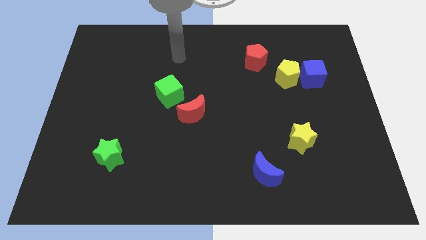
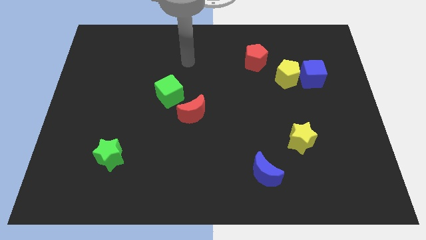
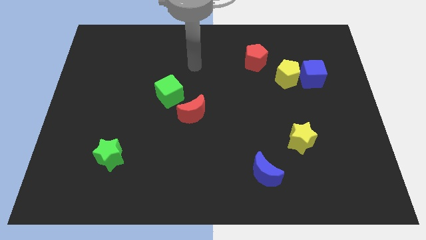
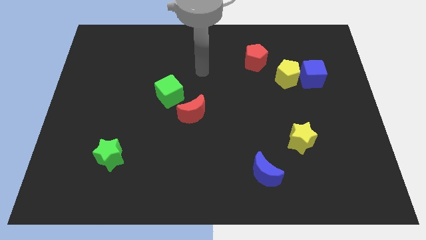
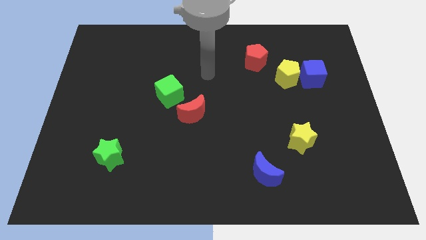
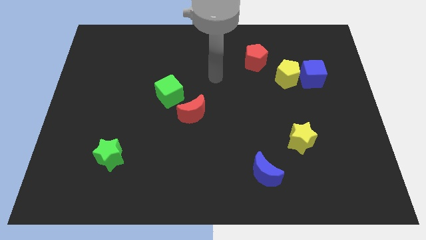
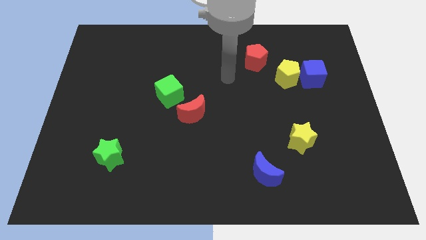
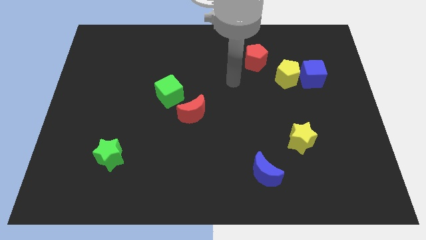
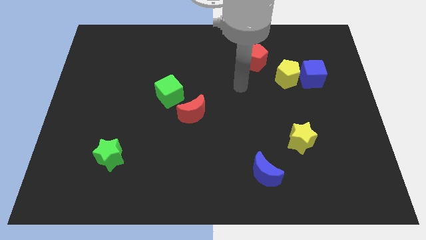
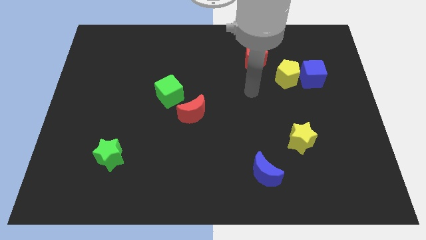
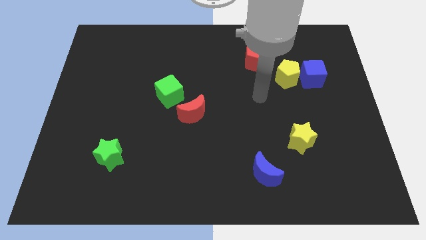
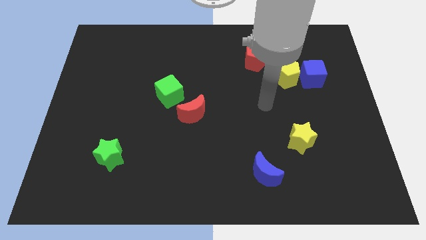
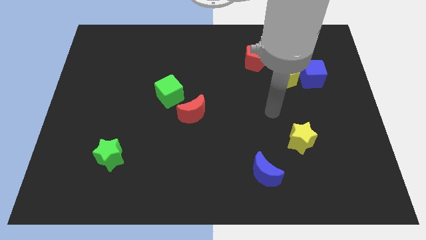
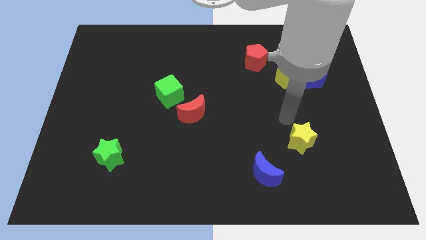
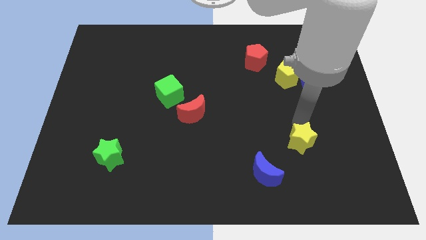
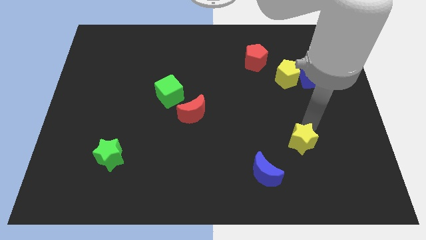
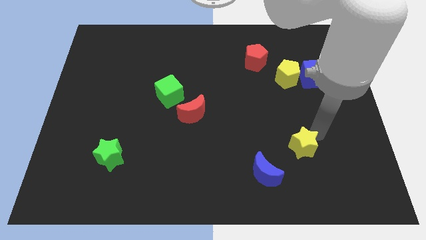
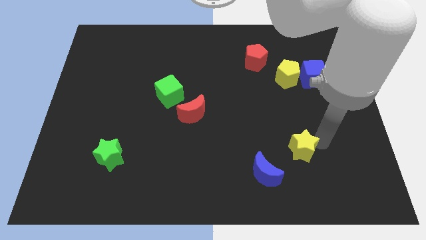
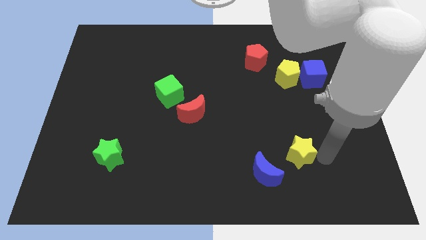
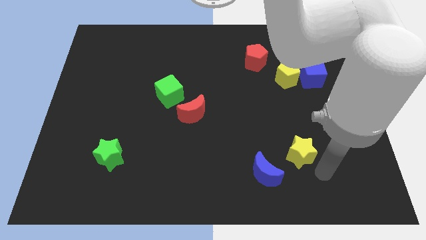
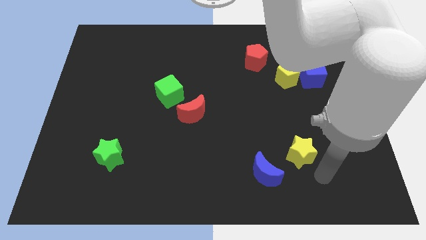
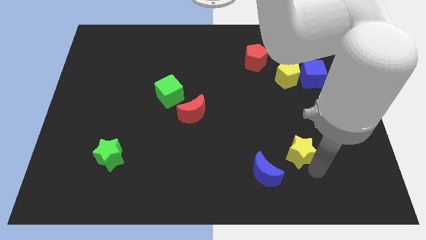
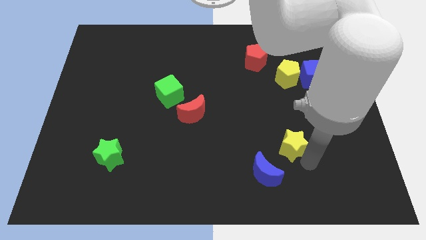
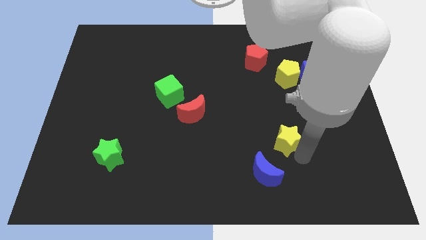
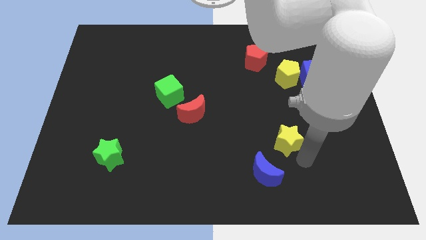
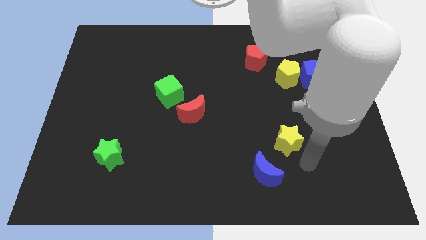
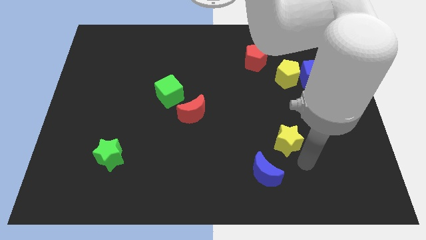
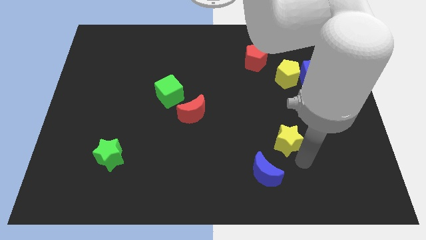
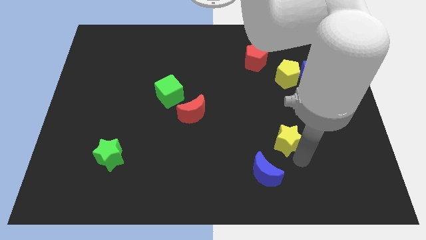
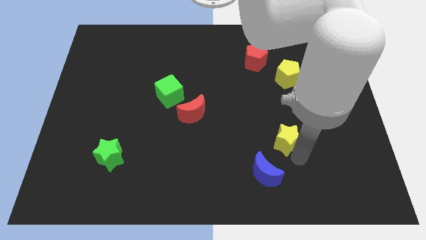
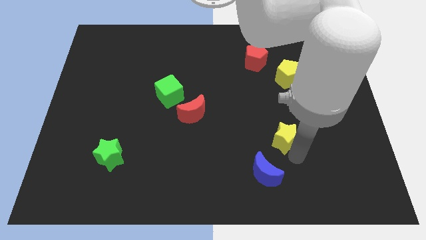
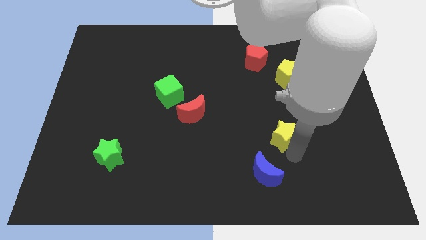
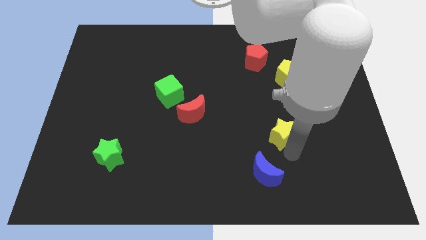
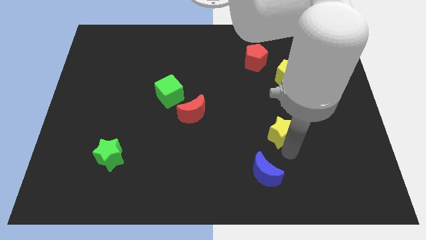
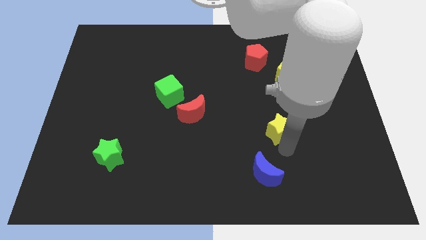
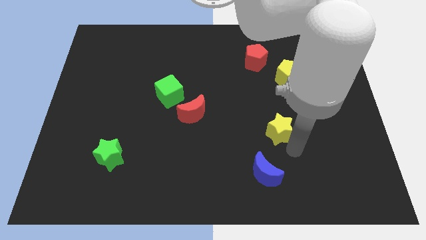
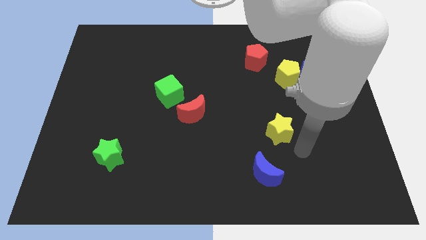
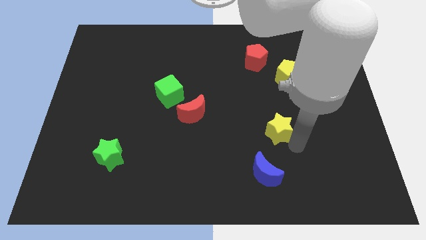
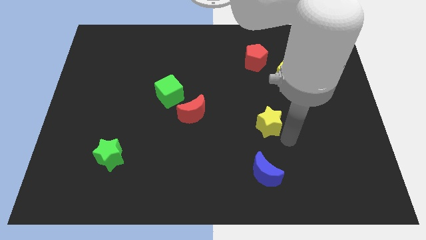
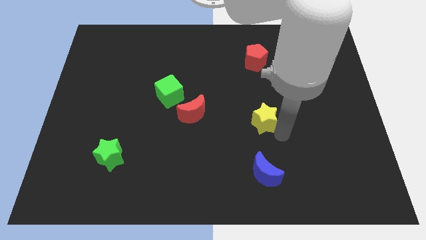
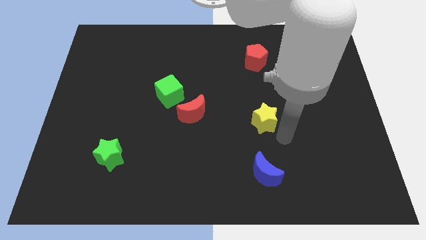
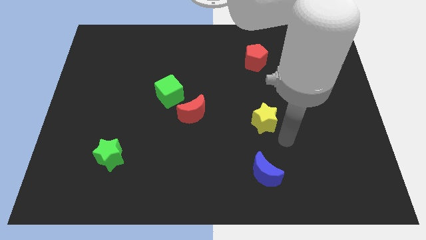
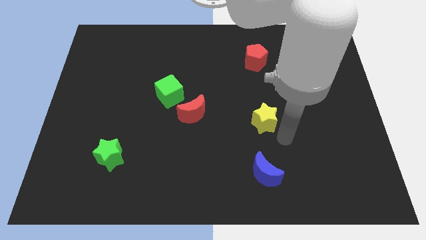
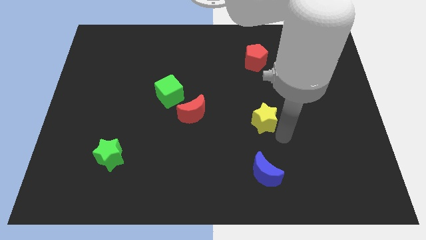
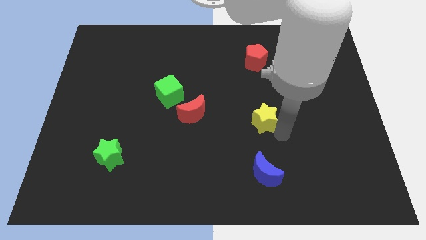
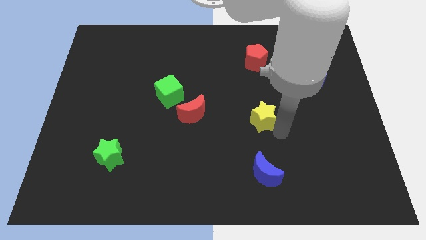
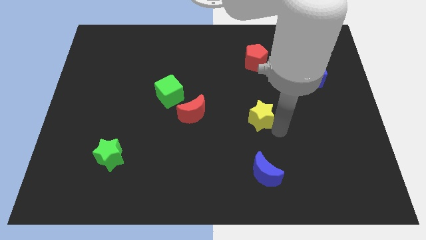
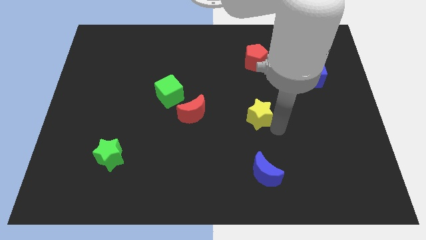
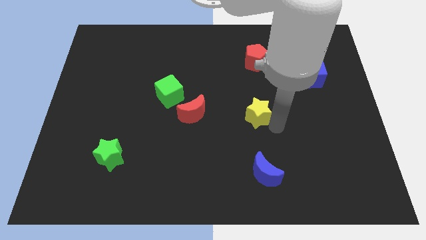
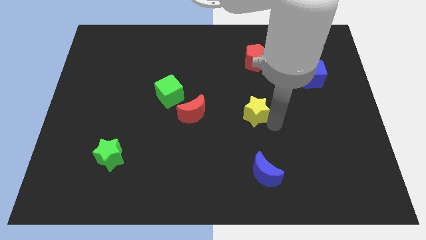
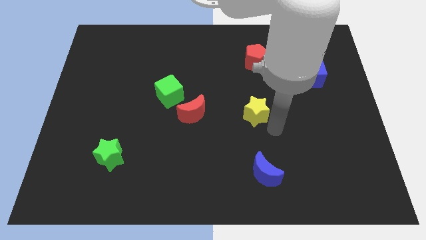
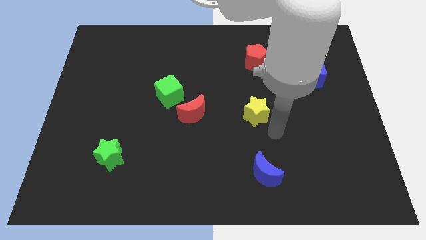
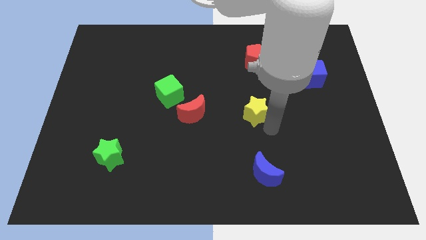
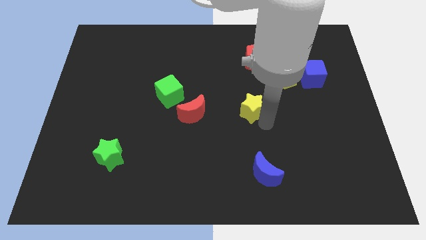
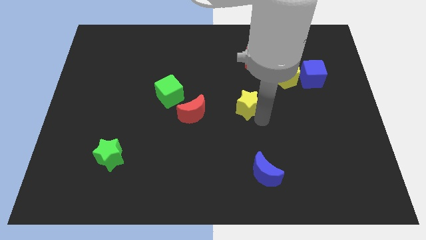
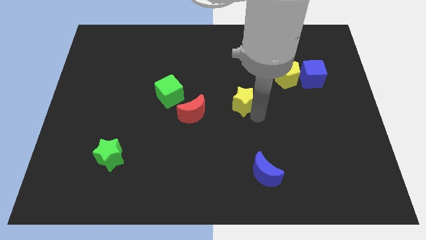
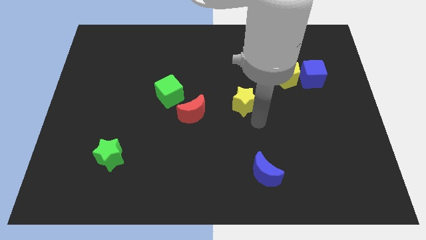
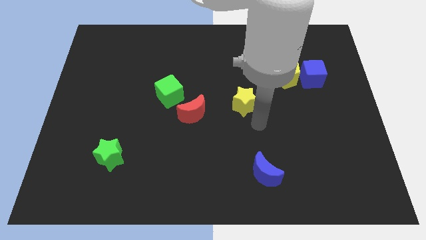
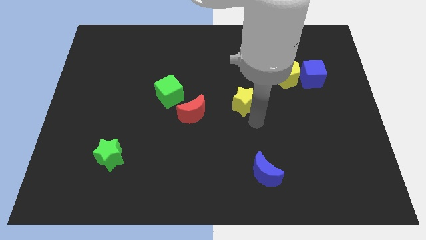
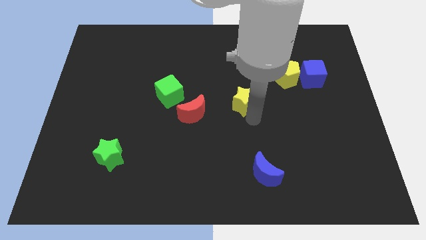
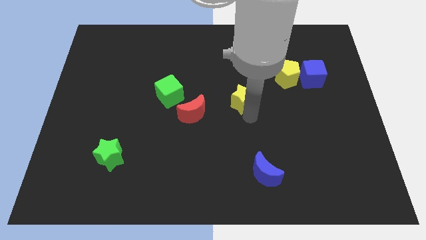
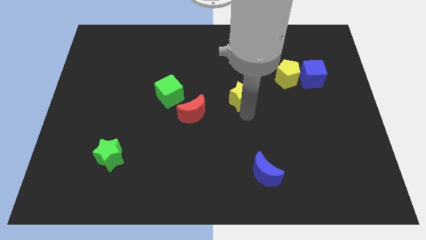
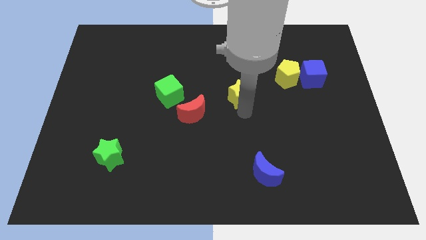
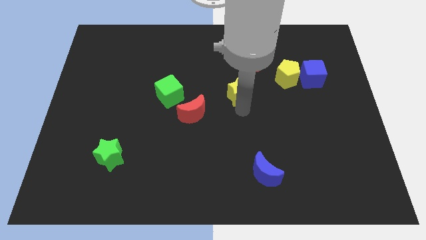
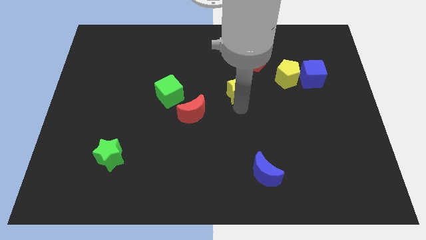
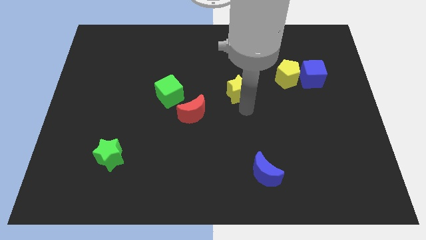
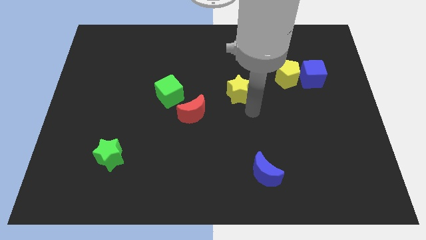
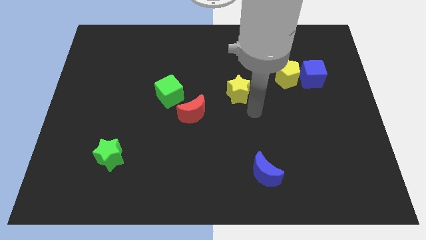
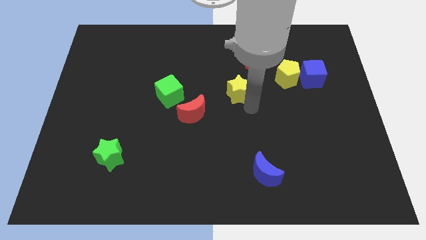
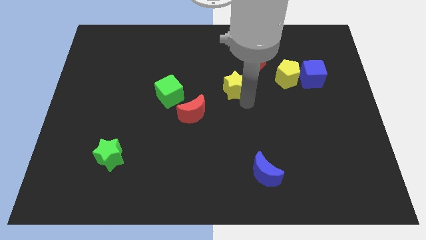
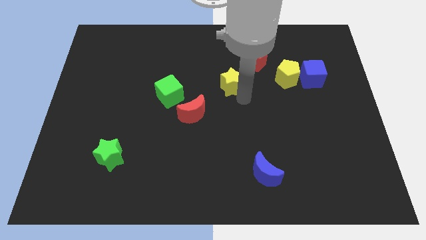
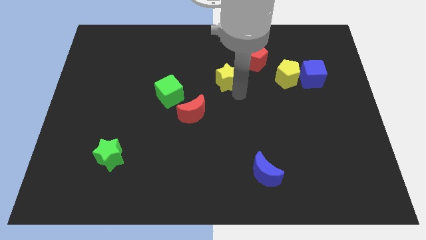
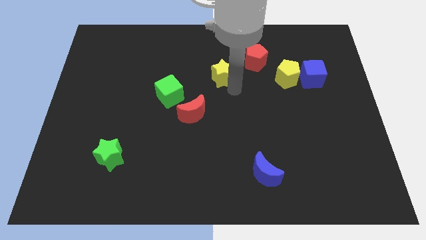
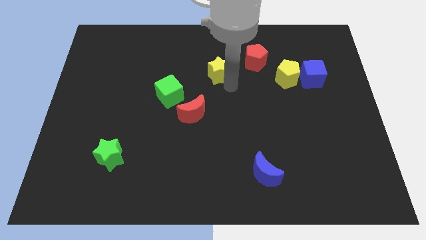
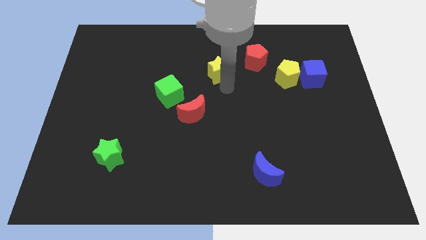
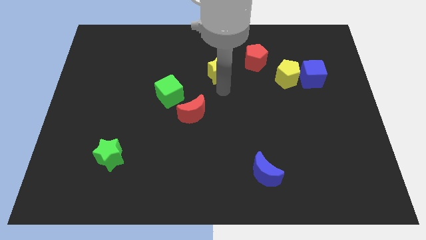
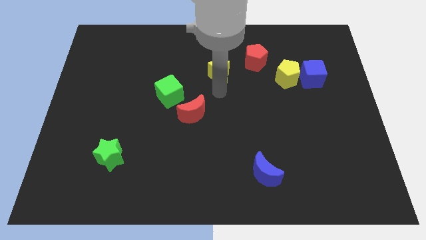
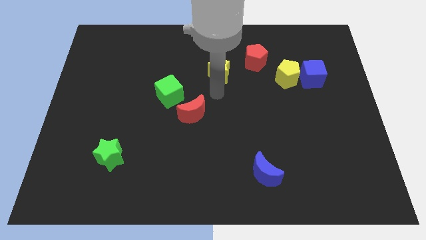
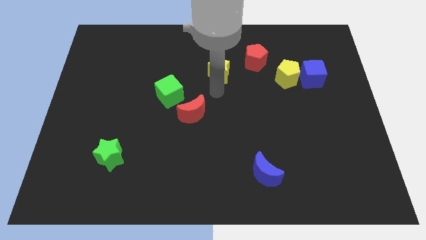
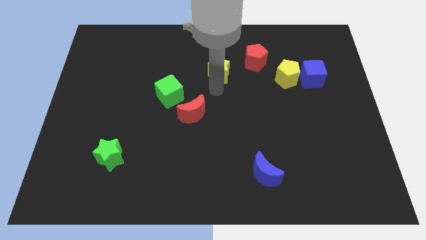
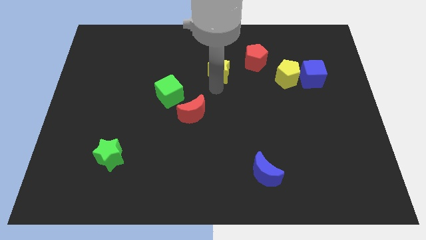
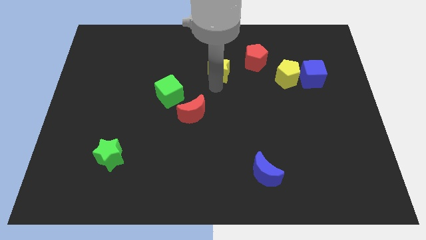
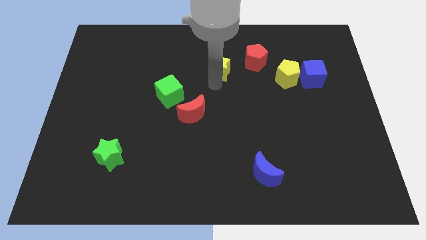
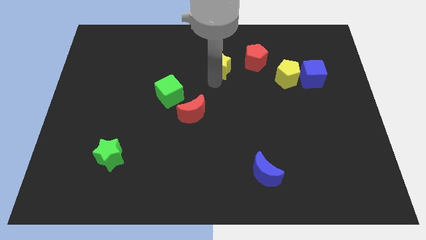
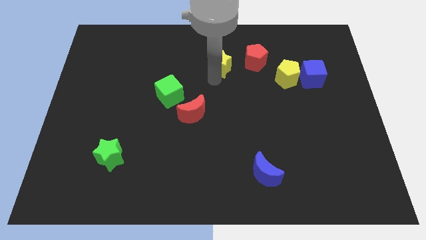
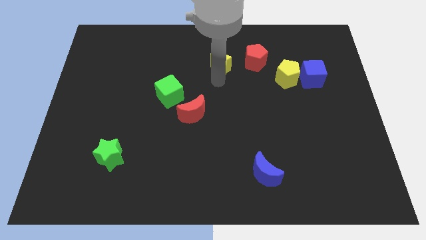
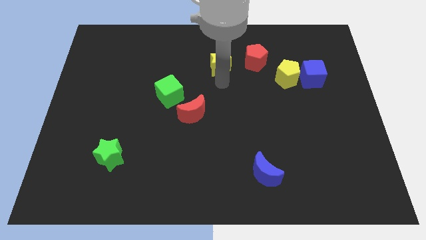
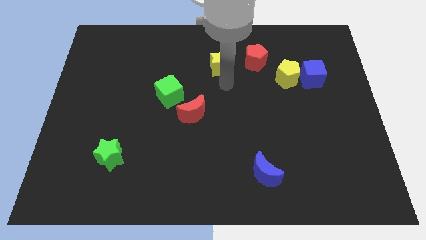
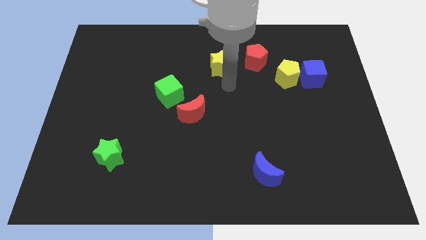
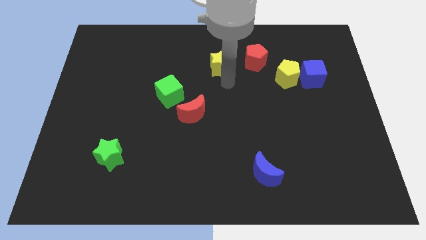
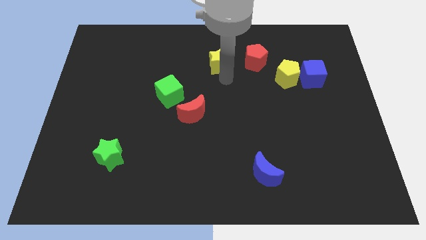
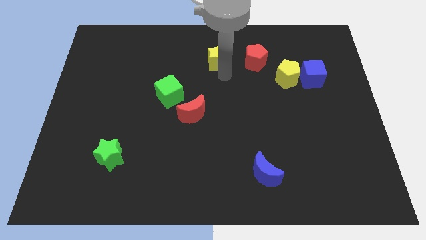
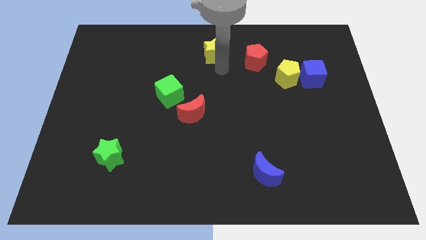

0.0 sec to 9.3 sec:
slide the yellow star to the top side
